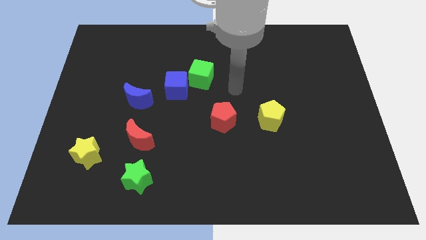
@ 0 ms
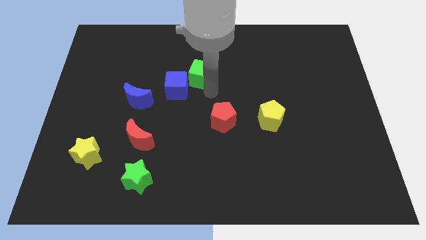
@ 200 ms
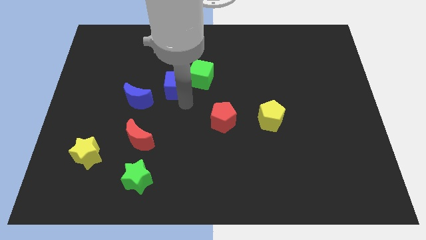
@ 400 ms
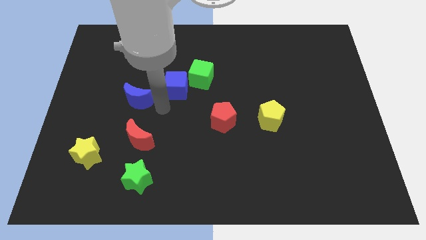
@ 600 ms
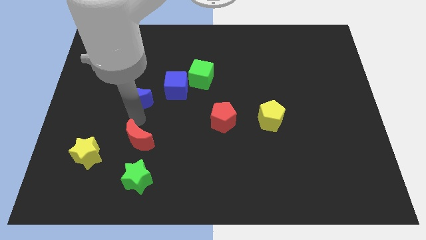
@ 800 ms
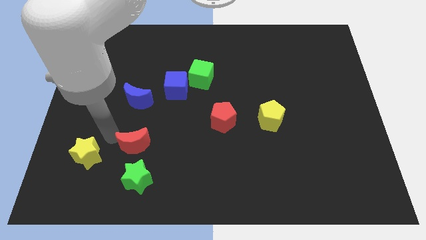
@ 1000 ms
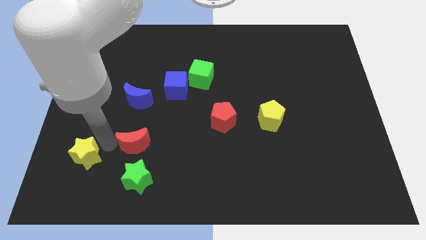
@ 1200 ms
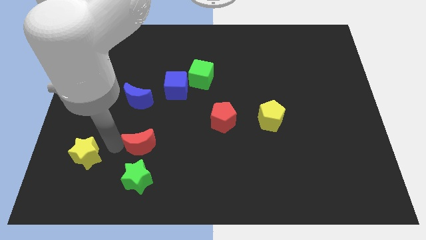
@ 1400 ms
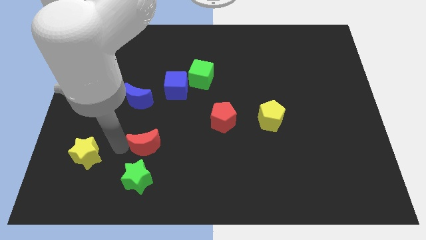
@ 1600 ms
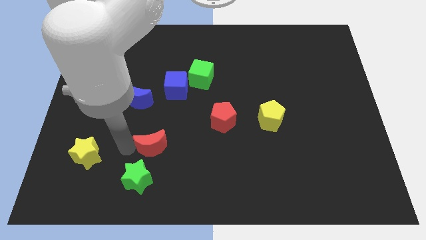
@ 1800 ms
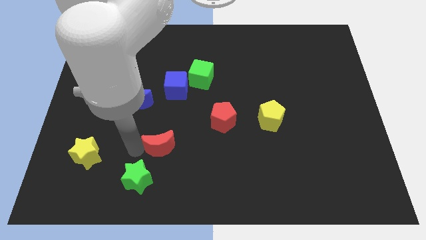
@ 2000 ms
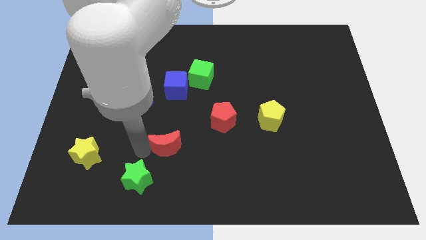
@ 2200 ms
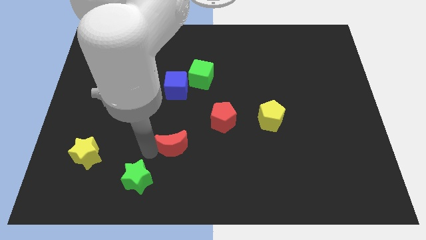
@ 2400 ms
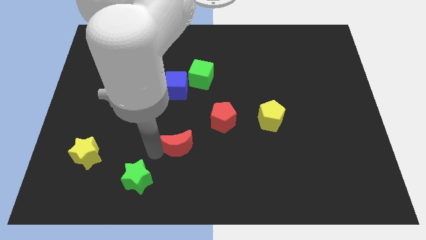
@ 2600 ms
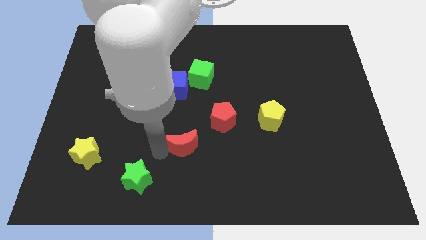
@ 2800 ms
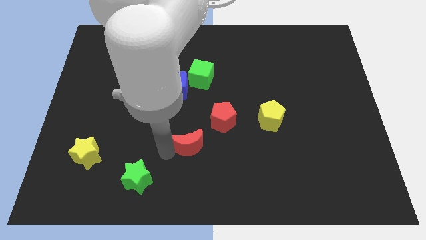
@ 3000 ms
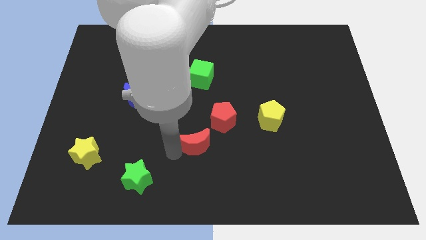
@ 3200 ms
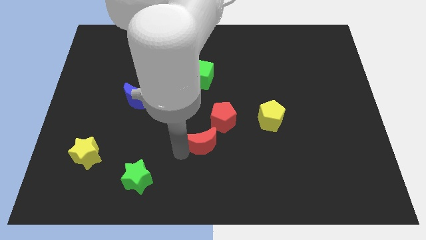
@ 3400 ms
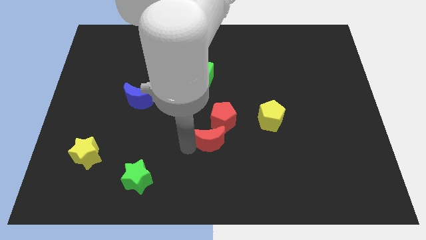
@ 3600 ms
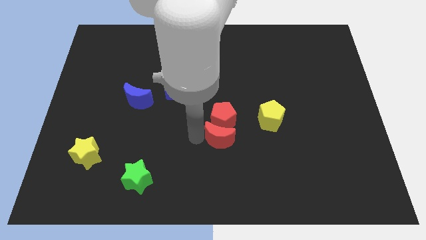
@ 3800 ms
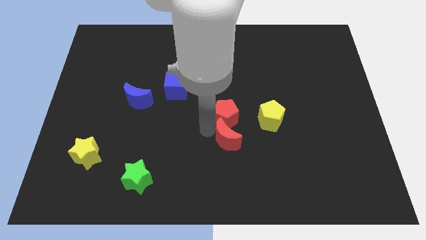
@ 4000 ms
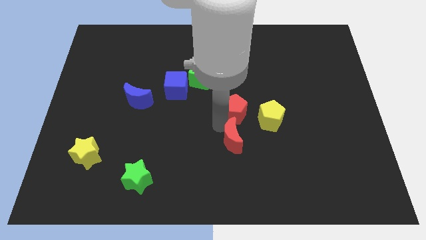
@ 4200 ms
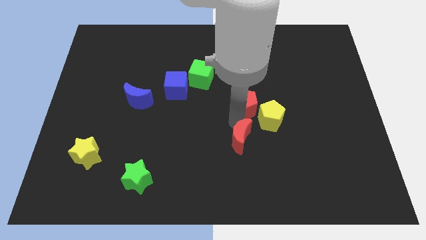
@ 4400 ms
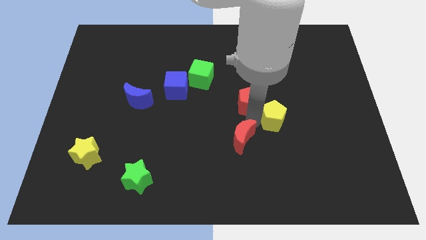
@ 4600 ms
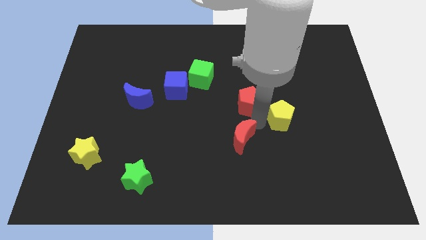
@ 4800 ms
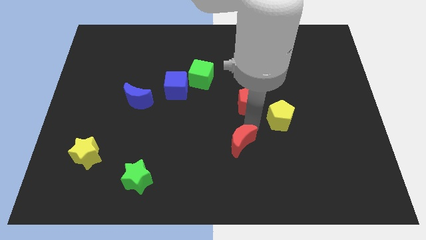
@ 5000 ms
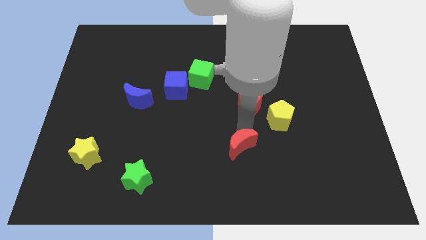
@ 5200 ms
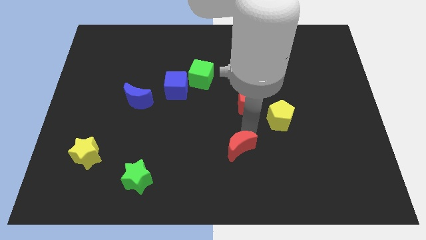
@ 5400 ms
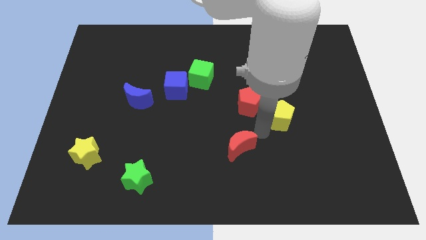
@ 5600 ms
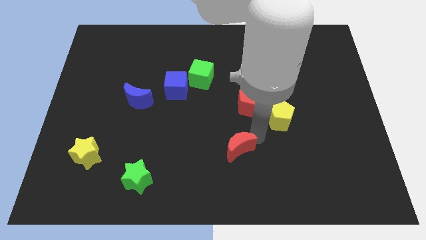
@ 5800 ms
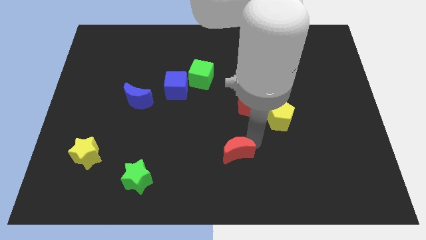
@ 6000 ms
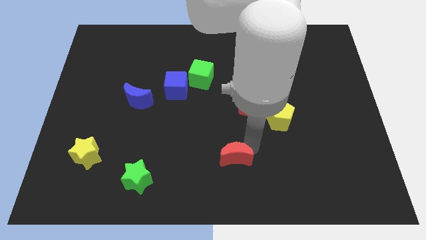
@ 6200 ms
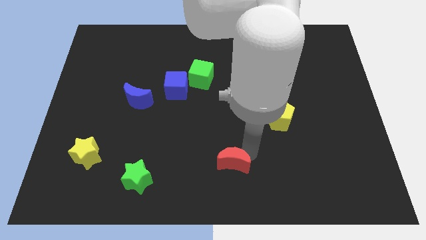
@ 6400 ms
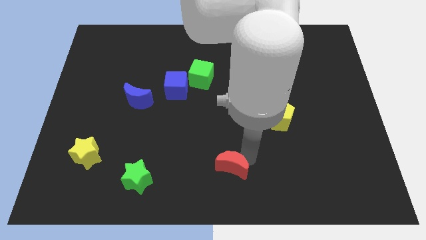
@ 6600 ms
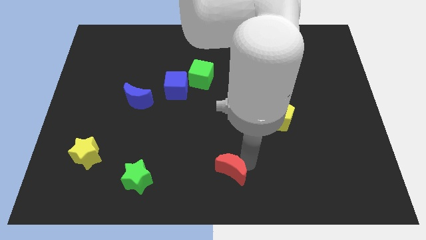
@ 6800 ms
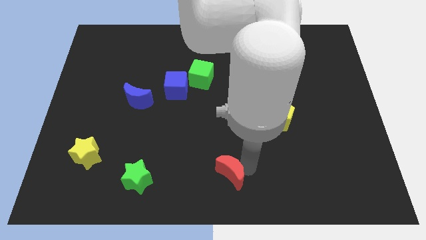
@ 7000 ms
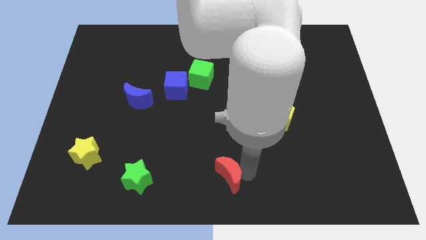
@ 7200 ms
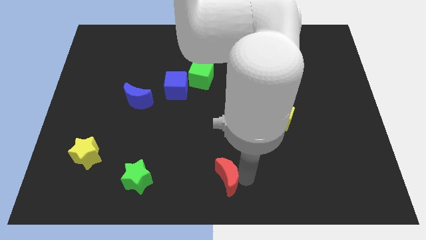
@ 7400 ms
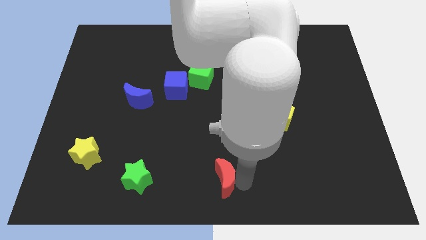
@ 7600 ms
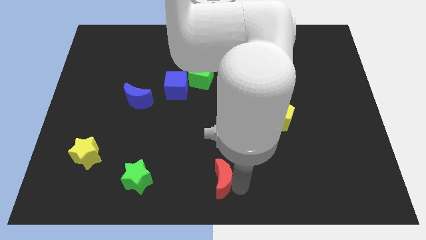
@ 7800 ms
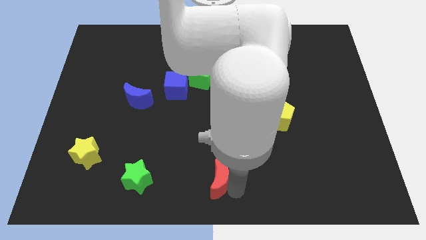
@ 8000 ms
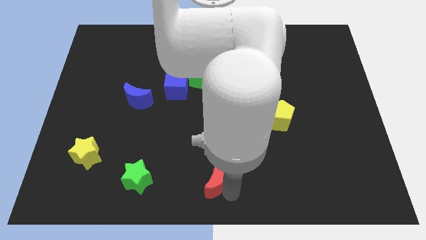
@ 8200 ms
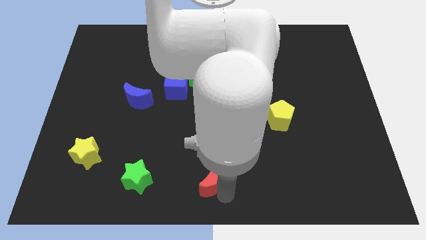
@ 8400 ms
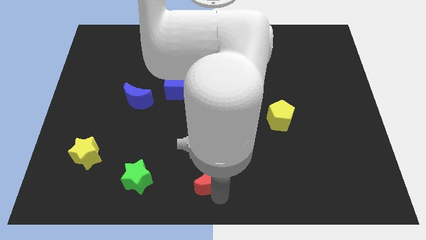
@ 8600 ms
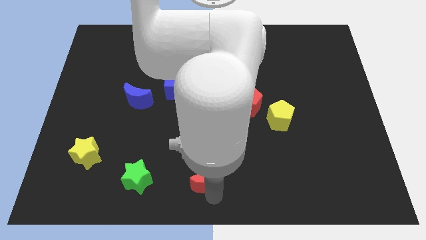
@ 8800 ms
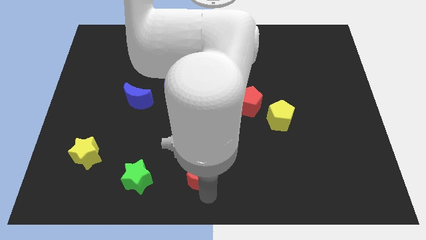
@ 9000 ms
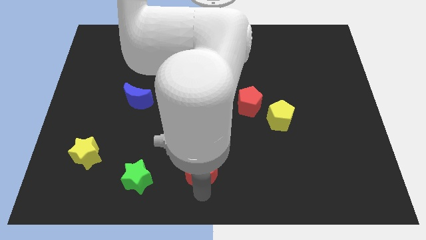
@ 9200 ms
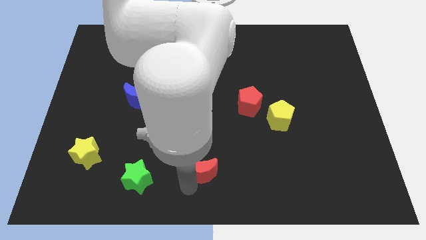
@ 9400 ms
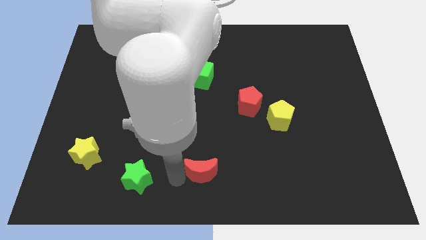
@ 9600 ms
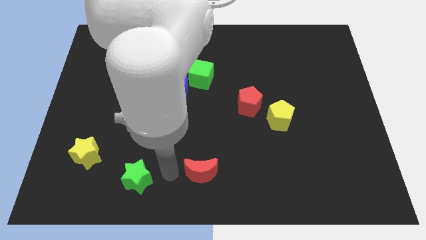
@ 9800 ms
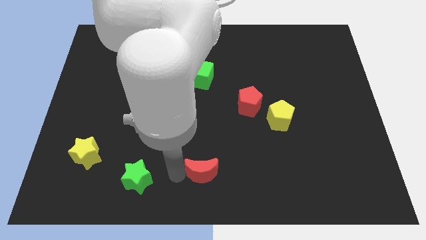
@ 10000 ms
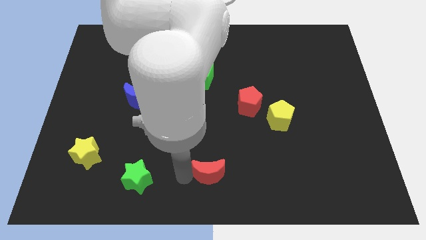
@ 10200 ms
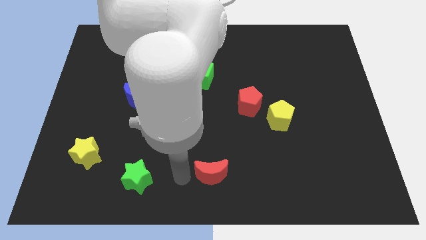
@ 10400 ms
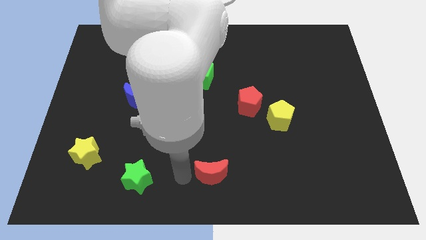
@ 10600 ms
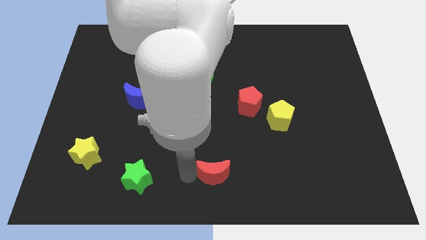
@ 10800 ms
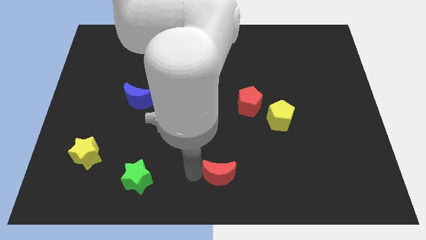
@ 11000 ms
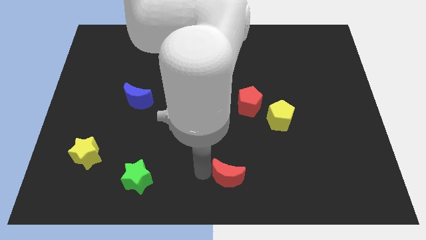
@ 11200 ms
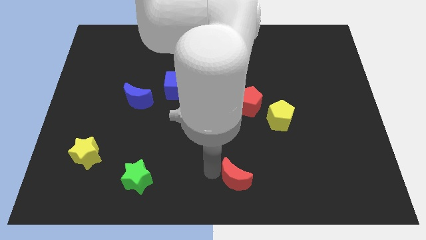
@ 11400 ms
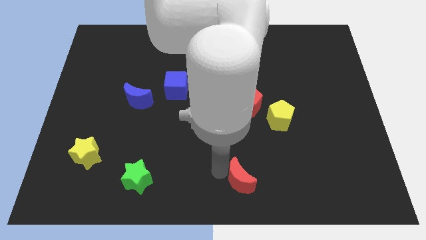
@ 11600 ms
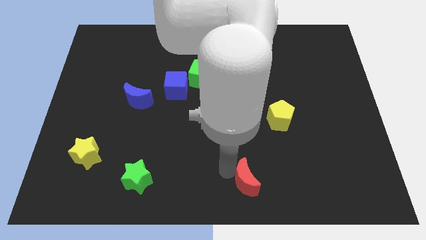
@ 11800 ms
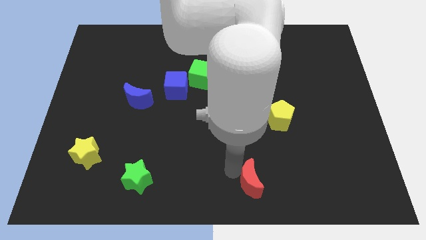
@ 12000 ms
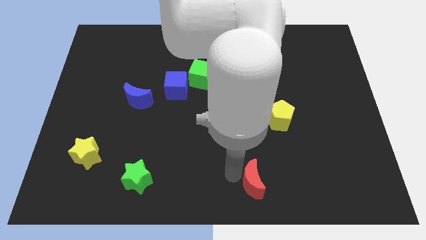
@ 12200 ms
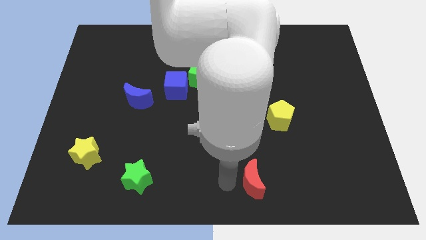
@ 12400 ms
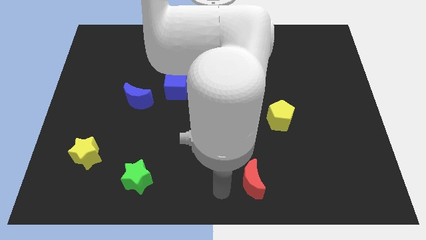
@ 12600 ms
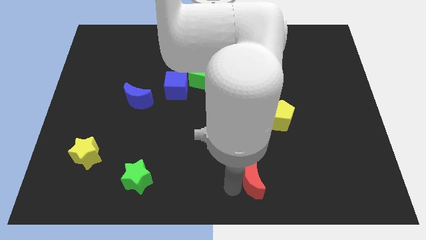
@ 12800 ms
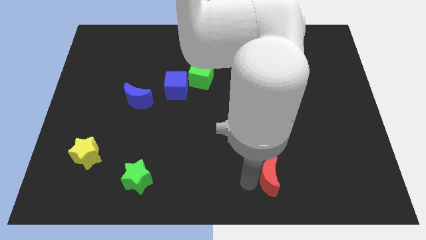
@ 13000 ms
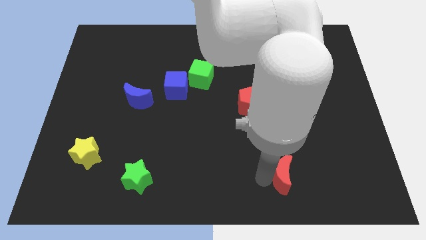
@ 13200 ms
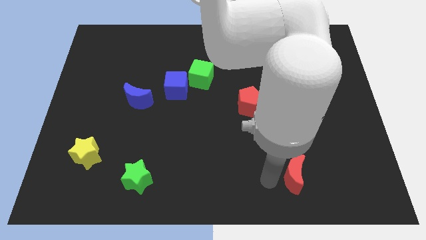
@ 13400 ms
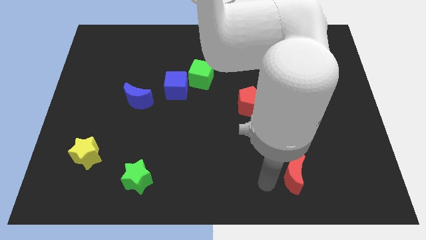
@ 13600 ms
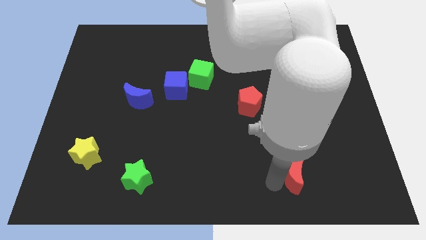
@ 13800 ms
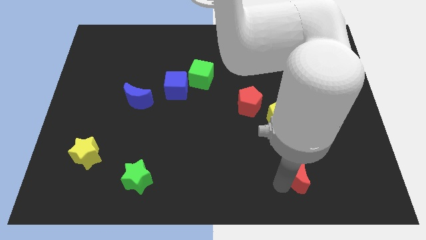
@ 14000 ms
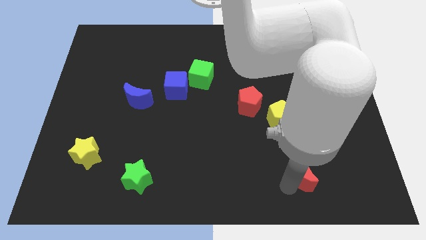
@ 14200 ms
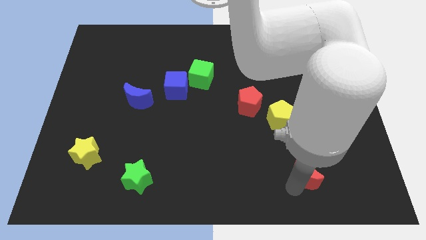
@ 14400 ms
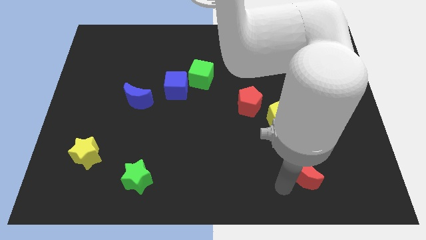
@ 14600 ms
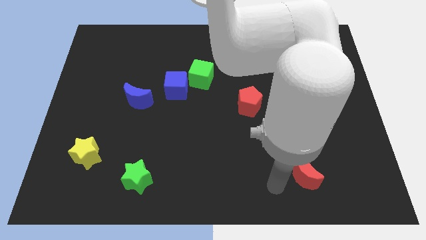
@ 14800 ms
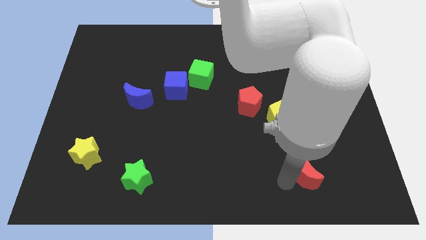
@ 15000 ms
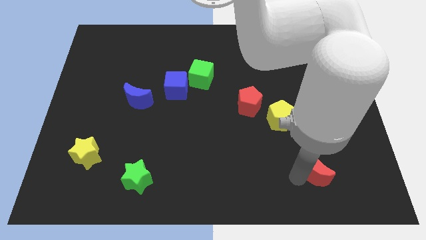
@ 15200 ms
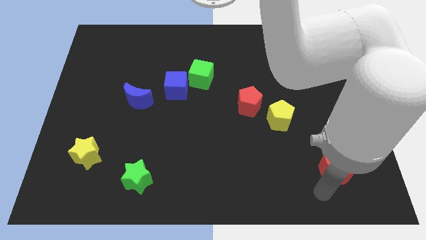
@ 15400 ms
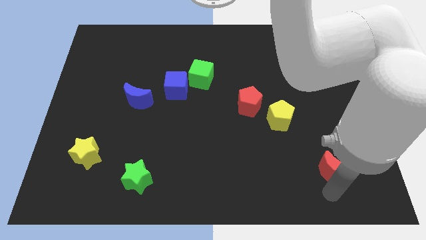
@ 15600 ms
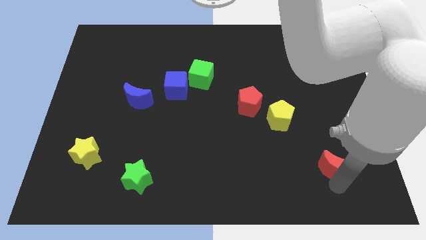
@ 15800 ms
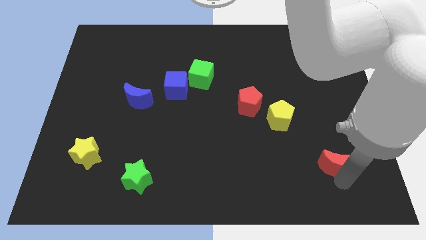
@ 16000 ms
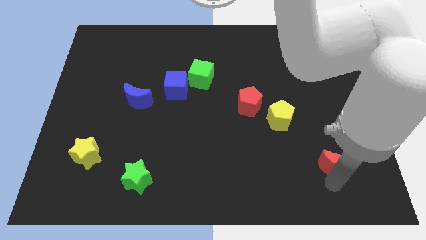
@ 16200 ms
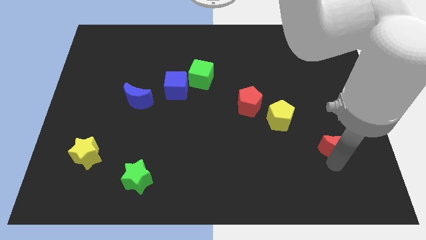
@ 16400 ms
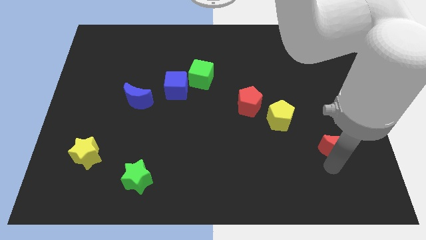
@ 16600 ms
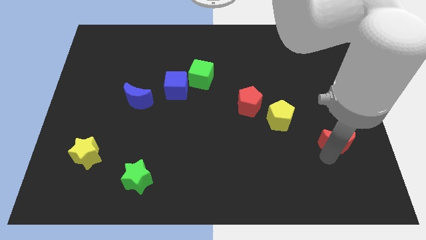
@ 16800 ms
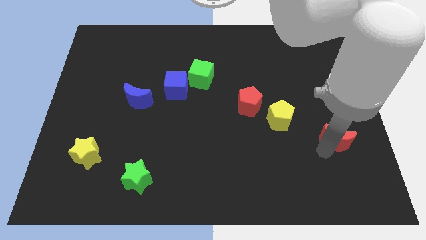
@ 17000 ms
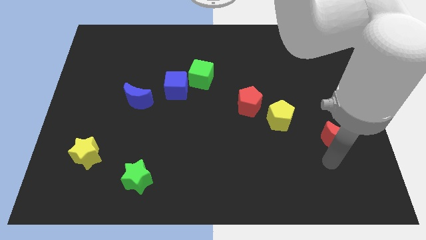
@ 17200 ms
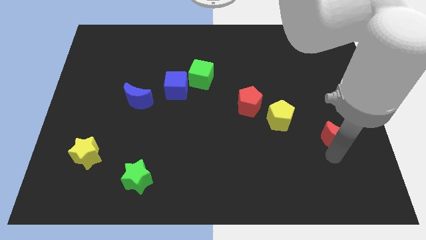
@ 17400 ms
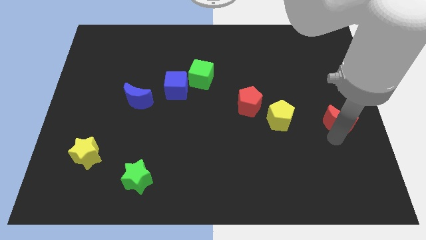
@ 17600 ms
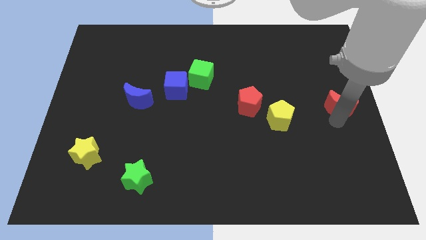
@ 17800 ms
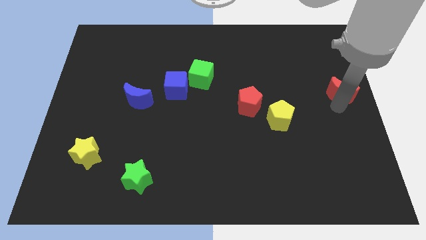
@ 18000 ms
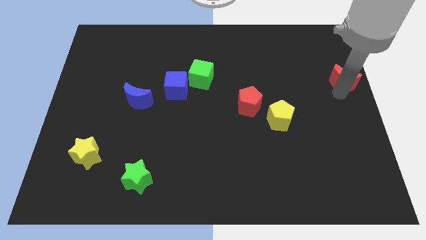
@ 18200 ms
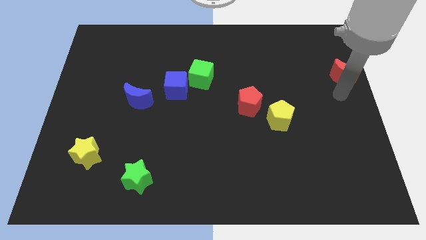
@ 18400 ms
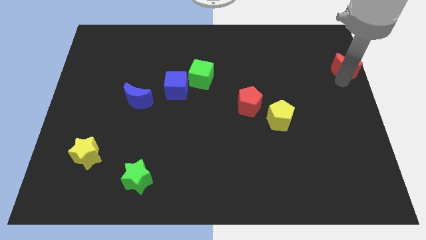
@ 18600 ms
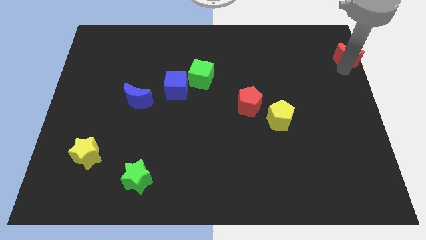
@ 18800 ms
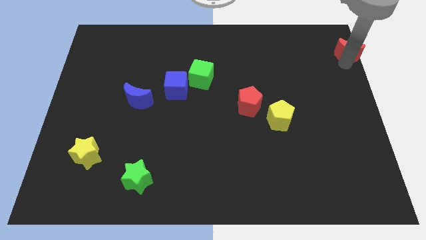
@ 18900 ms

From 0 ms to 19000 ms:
push the red moon to the upper right corner
